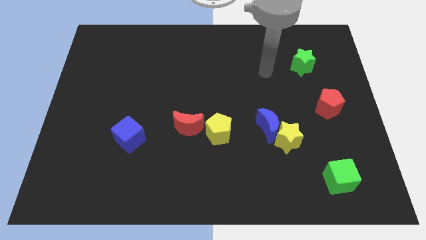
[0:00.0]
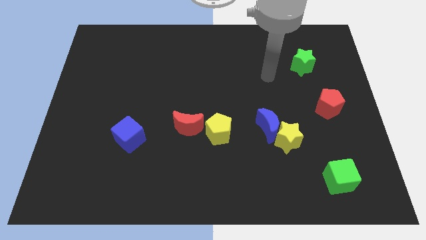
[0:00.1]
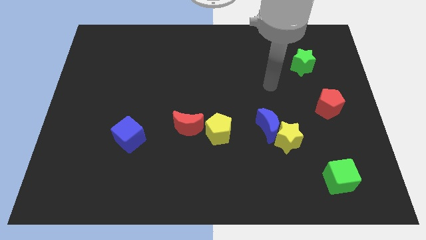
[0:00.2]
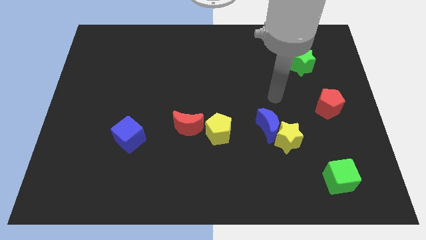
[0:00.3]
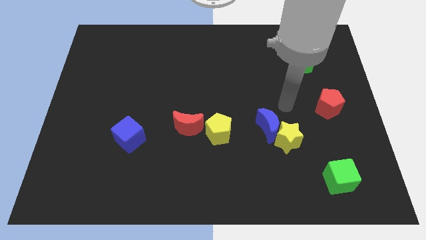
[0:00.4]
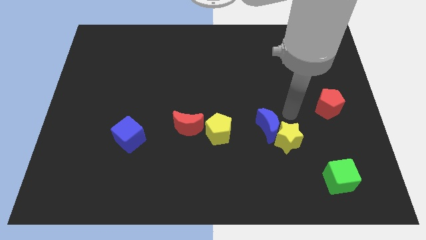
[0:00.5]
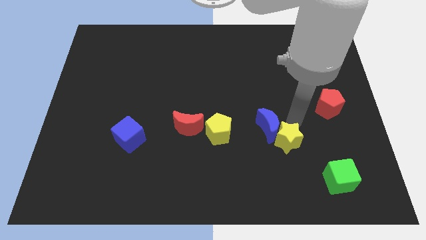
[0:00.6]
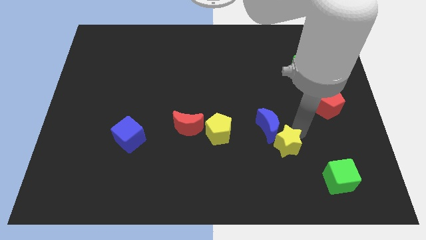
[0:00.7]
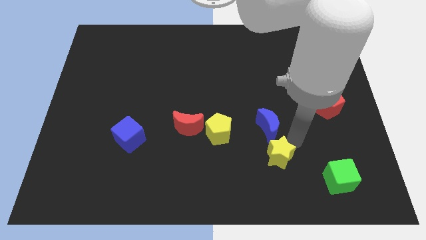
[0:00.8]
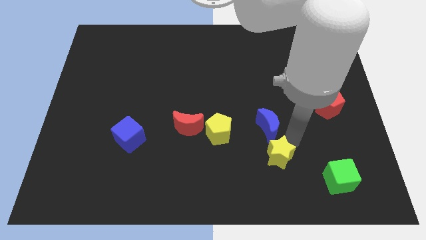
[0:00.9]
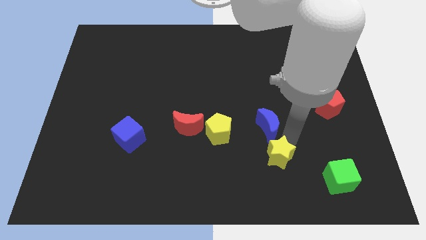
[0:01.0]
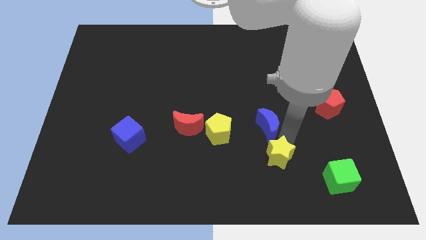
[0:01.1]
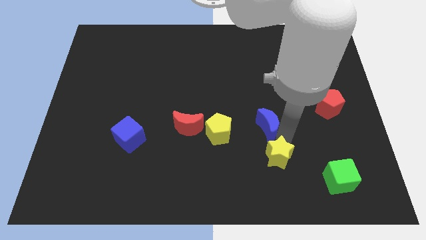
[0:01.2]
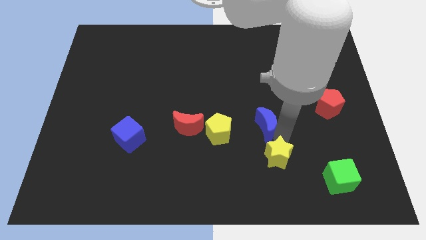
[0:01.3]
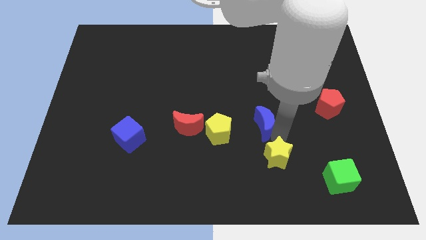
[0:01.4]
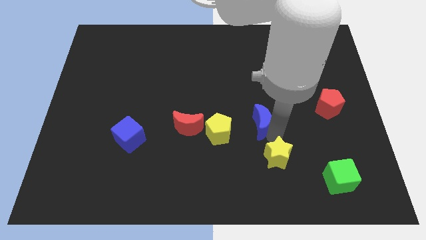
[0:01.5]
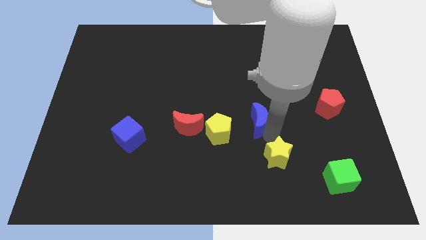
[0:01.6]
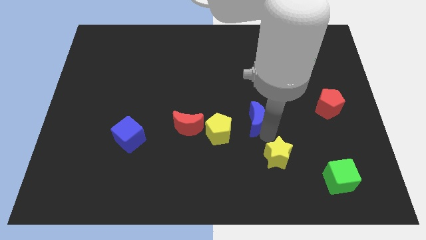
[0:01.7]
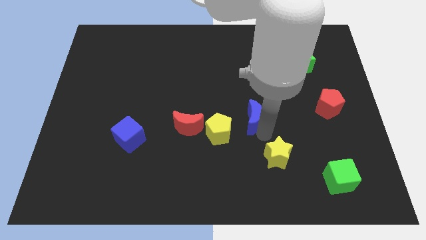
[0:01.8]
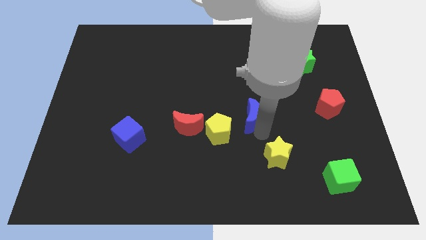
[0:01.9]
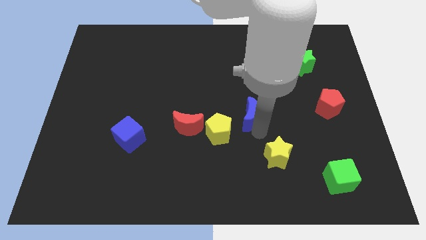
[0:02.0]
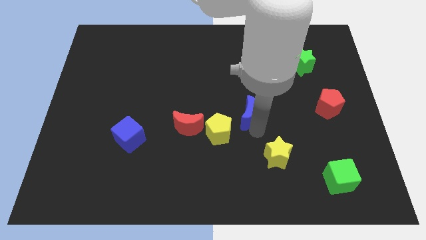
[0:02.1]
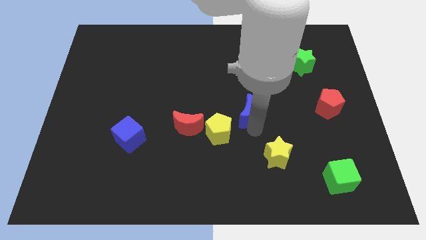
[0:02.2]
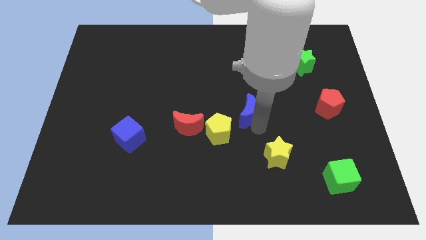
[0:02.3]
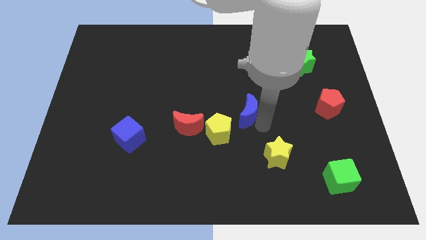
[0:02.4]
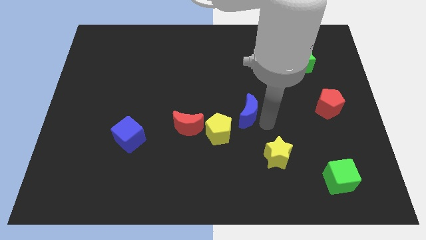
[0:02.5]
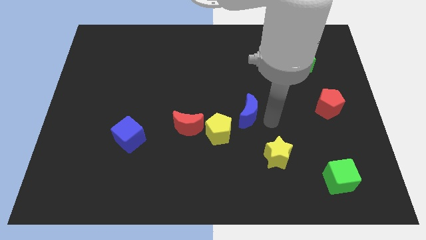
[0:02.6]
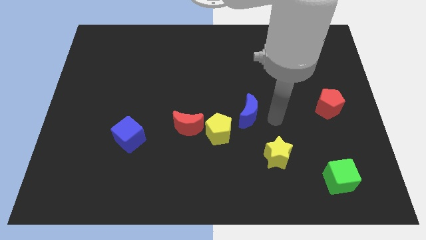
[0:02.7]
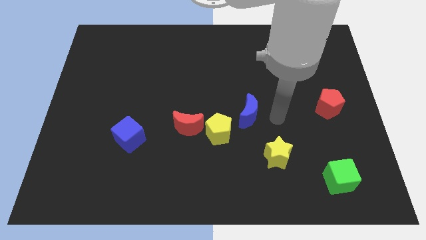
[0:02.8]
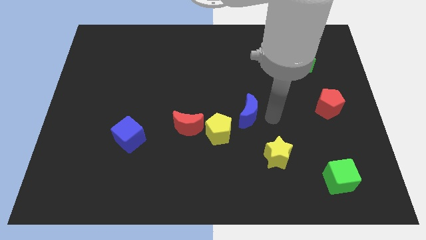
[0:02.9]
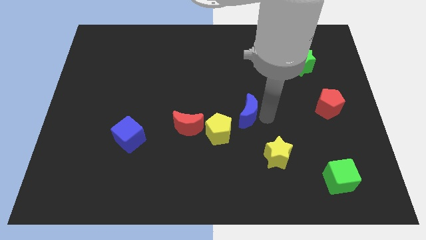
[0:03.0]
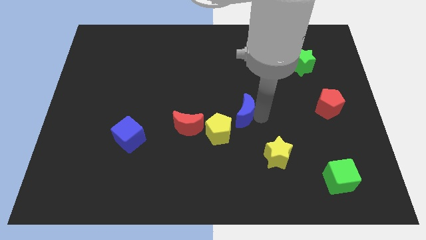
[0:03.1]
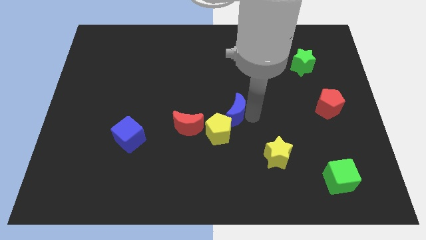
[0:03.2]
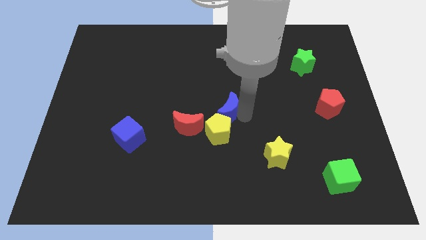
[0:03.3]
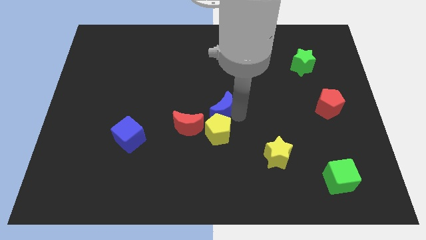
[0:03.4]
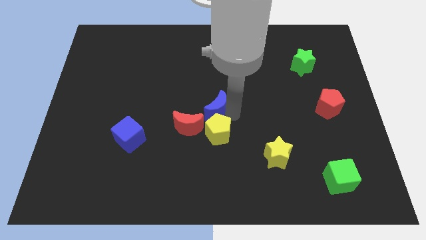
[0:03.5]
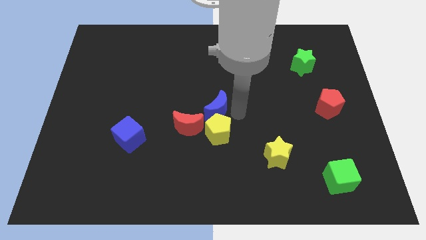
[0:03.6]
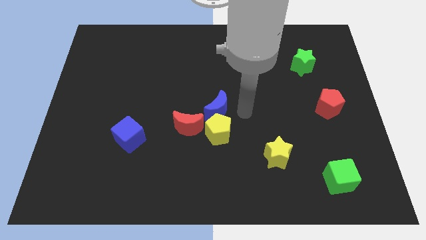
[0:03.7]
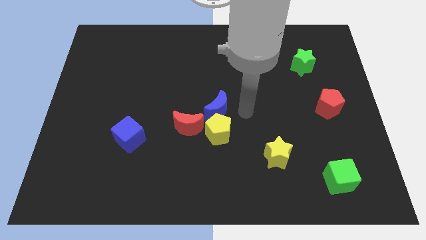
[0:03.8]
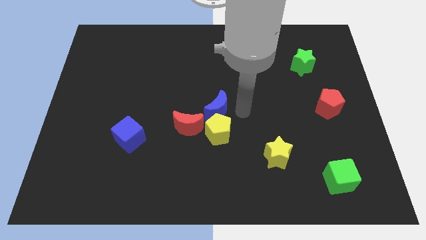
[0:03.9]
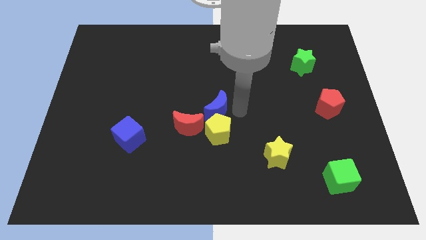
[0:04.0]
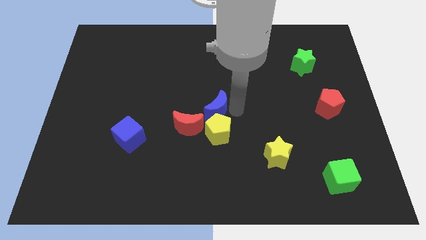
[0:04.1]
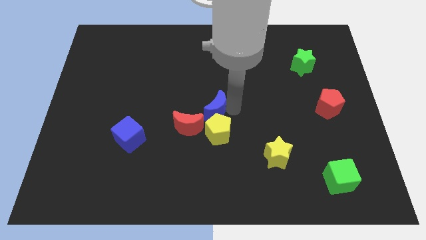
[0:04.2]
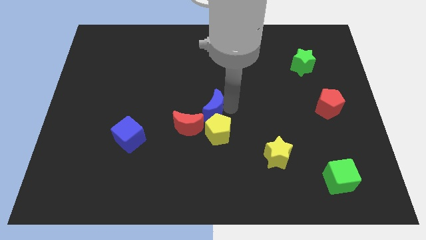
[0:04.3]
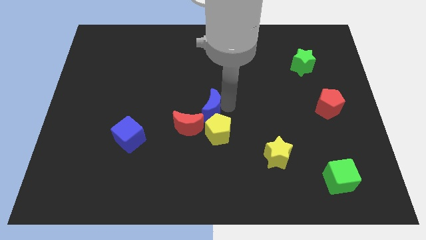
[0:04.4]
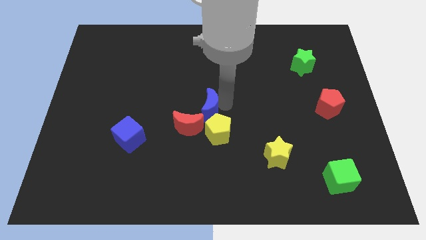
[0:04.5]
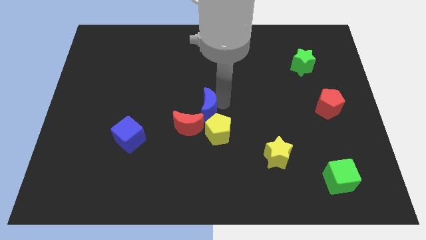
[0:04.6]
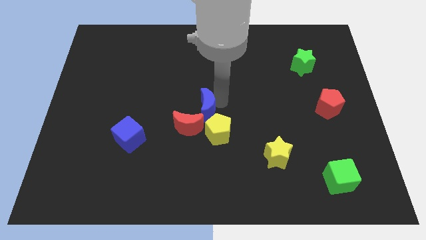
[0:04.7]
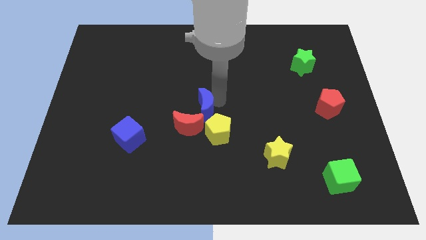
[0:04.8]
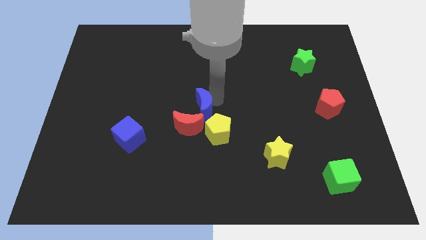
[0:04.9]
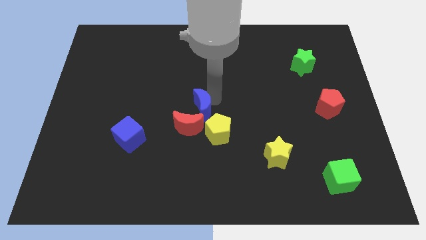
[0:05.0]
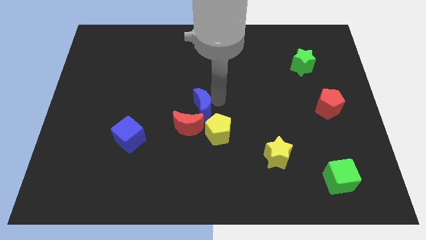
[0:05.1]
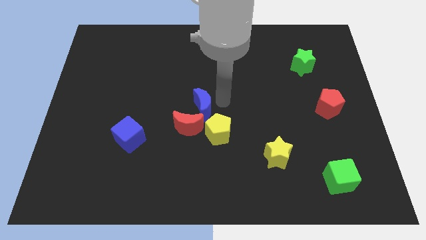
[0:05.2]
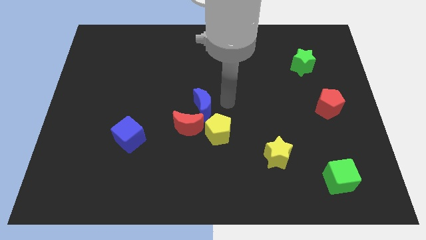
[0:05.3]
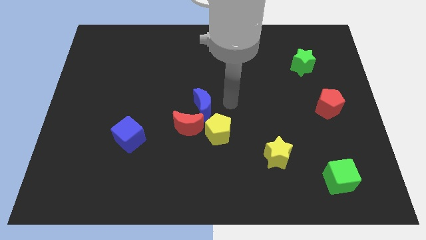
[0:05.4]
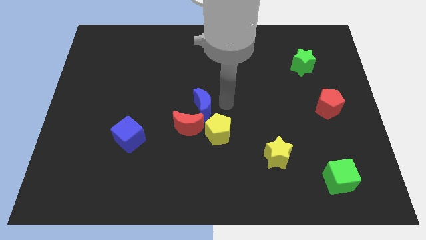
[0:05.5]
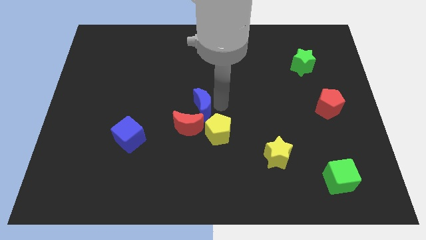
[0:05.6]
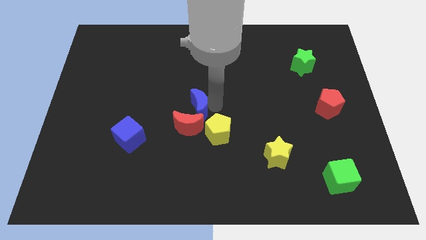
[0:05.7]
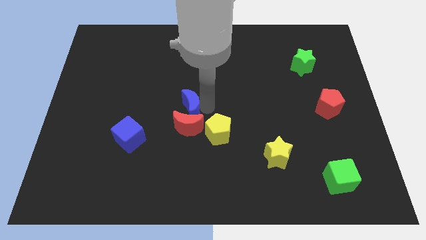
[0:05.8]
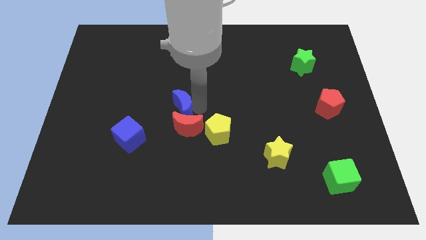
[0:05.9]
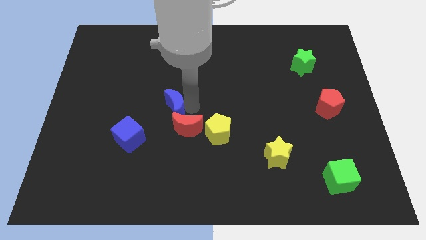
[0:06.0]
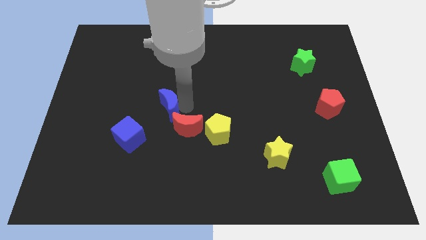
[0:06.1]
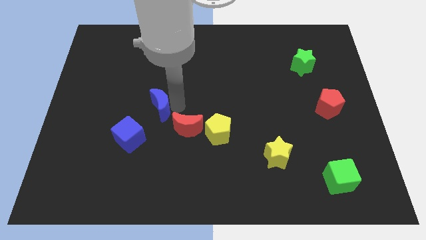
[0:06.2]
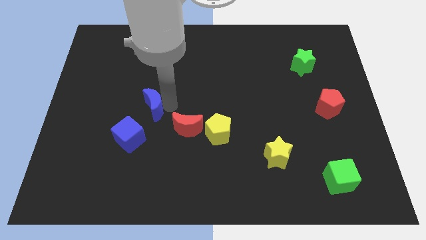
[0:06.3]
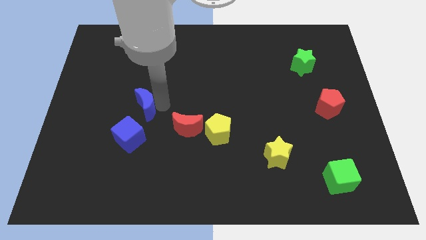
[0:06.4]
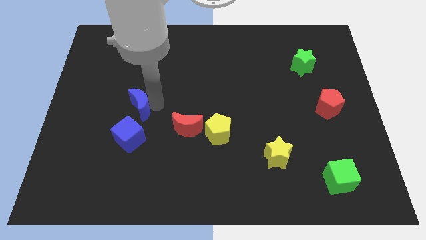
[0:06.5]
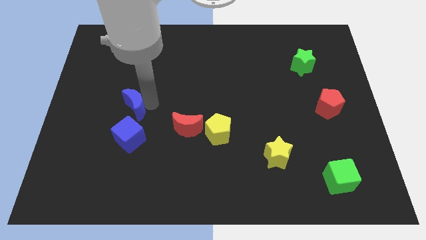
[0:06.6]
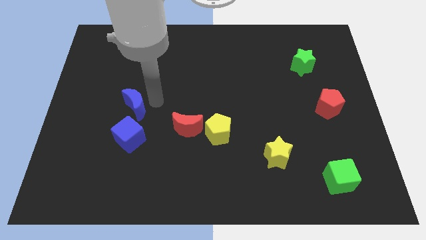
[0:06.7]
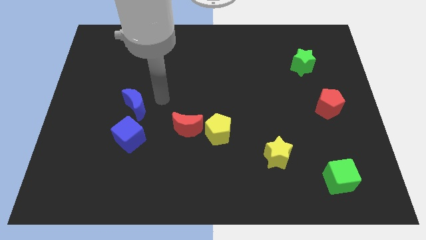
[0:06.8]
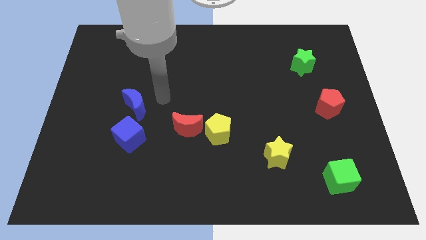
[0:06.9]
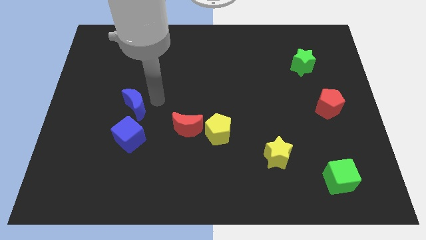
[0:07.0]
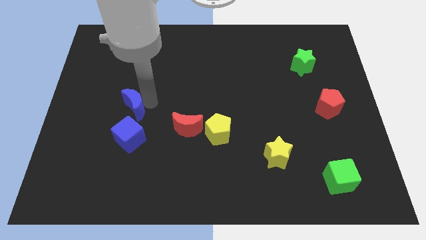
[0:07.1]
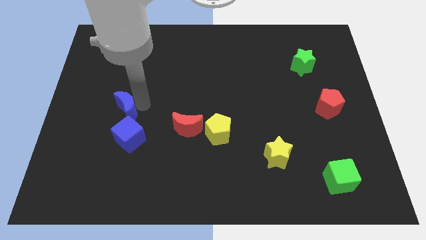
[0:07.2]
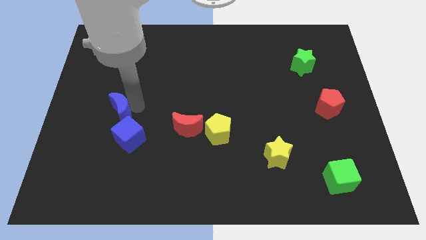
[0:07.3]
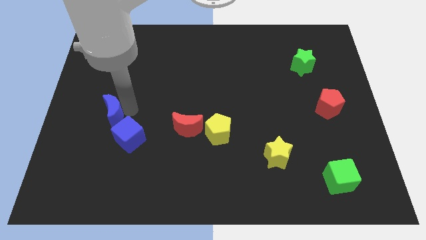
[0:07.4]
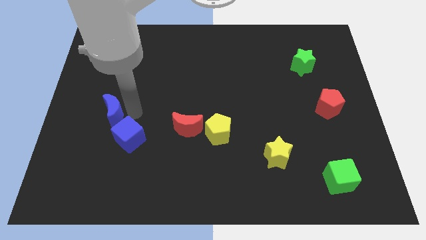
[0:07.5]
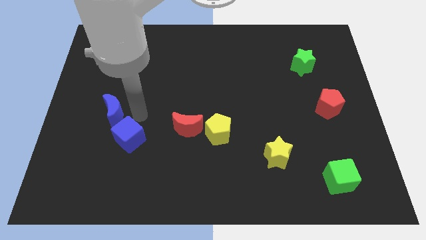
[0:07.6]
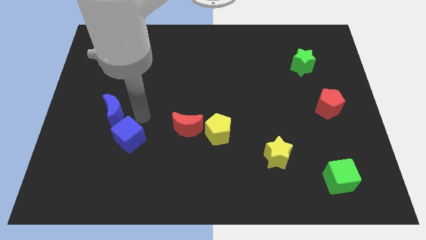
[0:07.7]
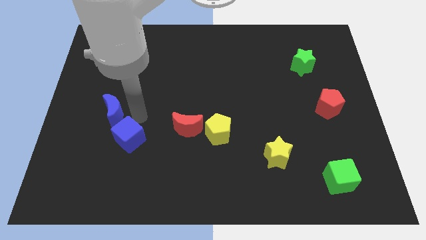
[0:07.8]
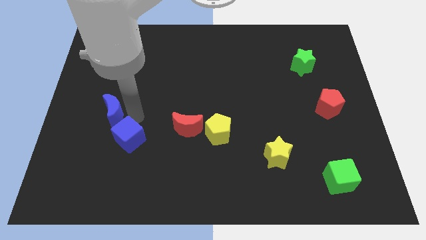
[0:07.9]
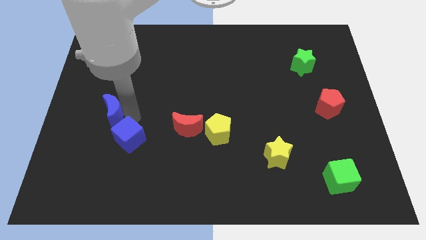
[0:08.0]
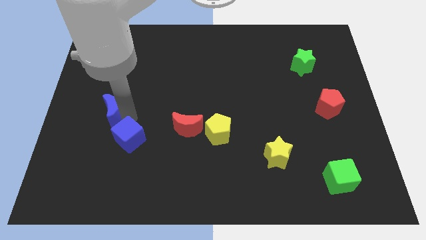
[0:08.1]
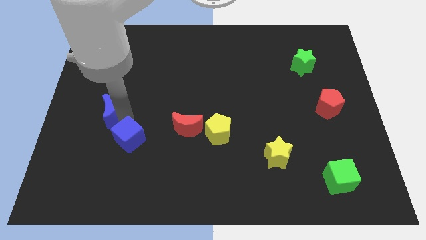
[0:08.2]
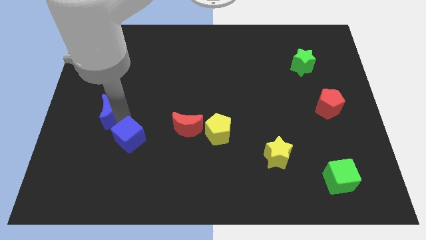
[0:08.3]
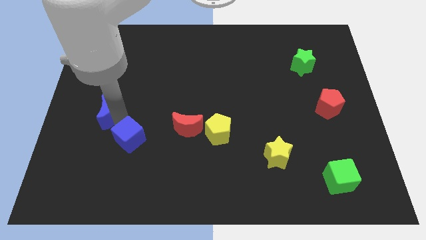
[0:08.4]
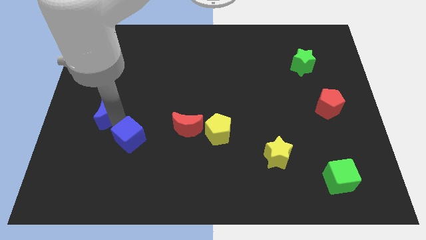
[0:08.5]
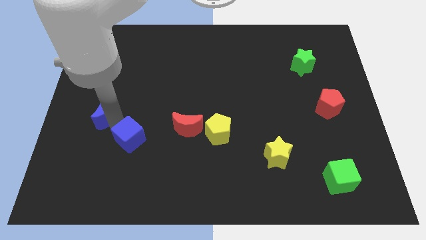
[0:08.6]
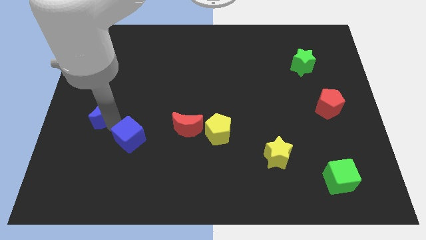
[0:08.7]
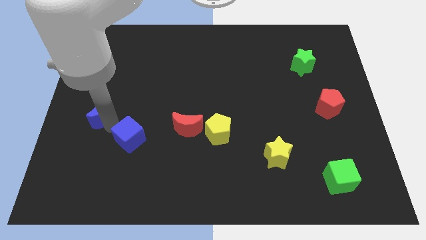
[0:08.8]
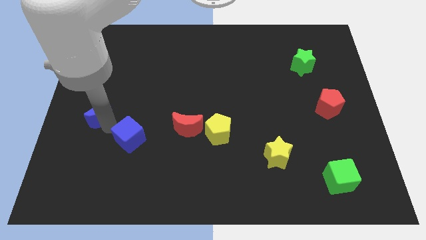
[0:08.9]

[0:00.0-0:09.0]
push the blue moon to the center left
